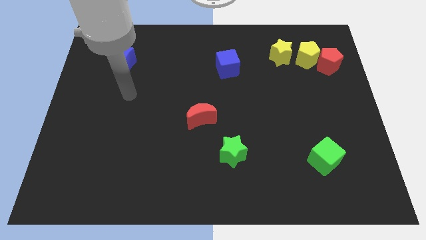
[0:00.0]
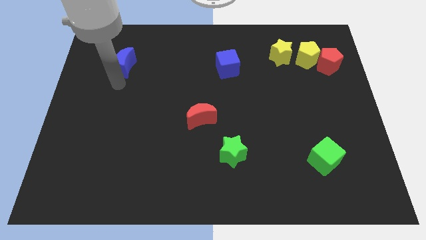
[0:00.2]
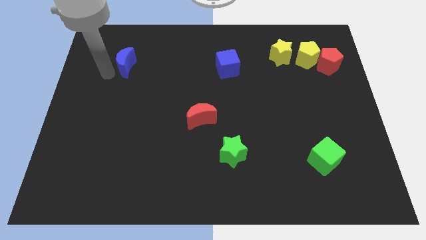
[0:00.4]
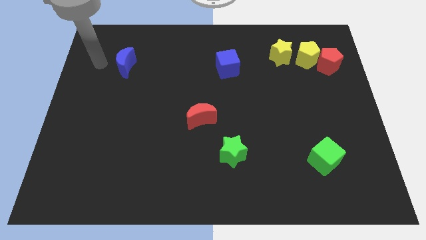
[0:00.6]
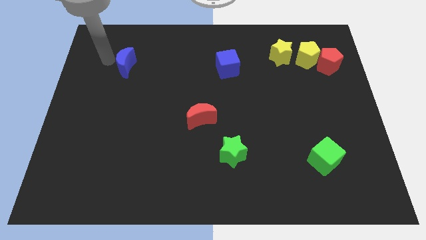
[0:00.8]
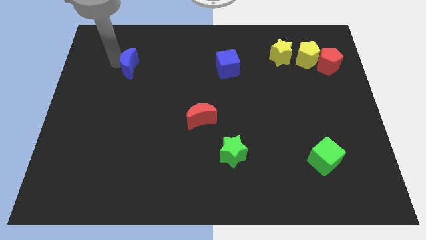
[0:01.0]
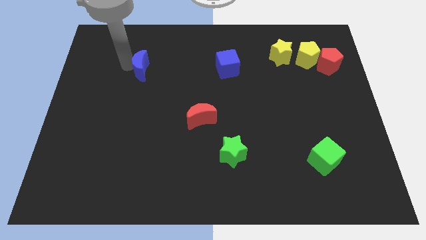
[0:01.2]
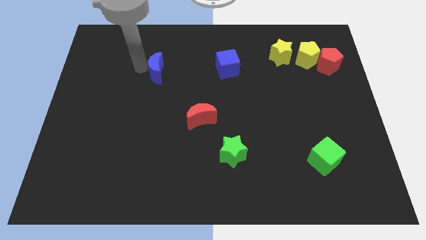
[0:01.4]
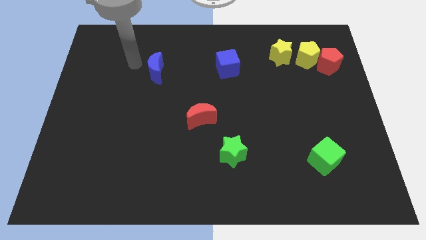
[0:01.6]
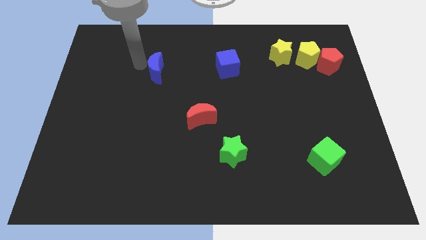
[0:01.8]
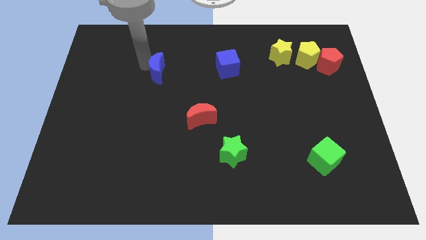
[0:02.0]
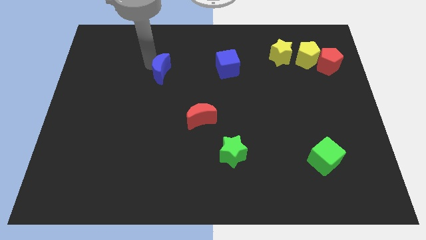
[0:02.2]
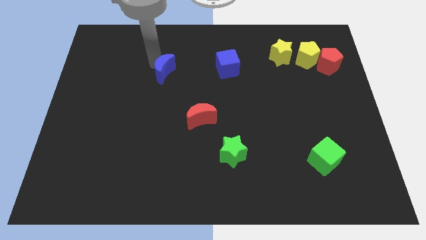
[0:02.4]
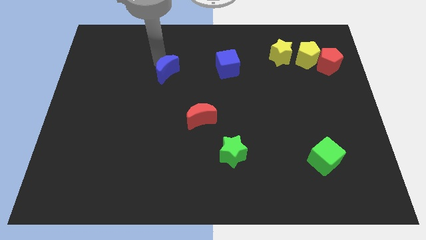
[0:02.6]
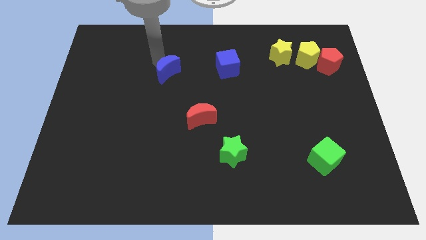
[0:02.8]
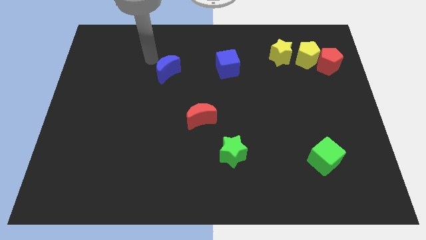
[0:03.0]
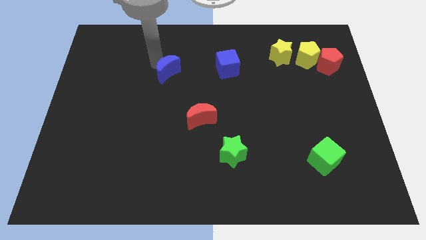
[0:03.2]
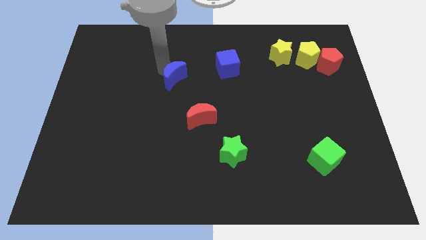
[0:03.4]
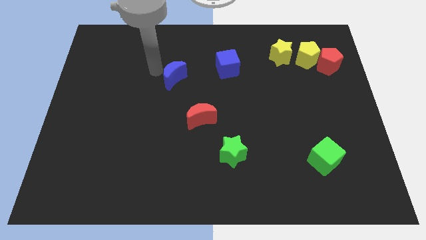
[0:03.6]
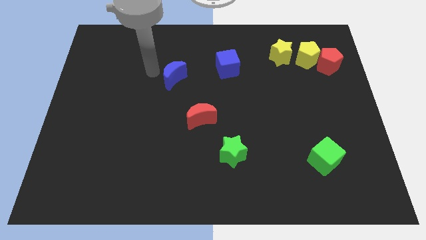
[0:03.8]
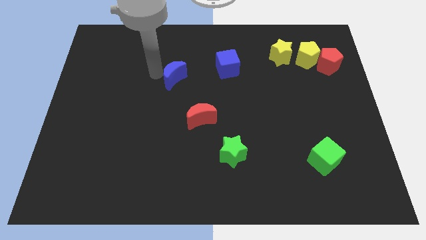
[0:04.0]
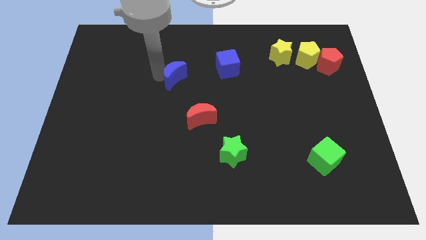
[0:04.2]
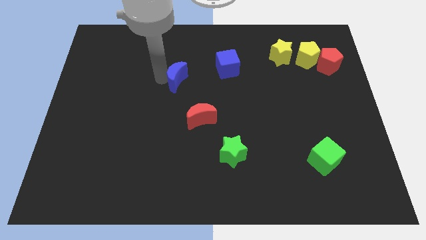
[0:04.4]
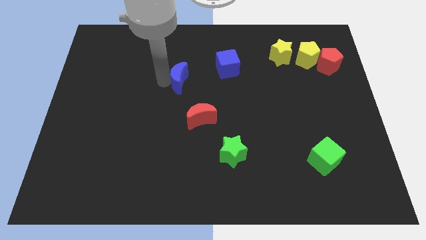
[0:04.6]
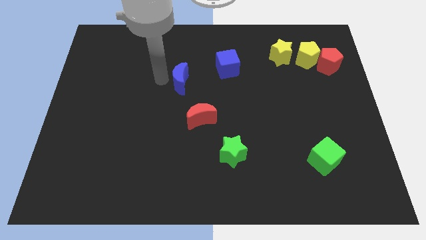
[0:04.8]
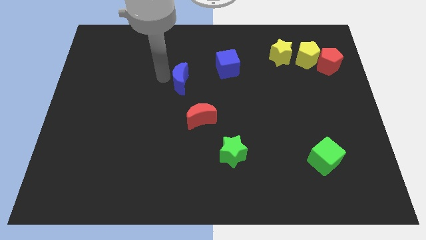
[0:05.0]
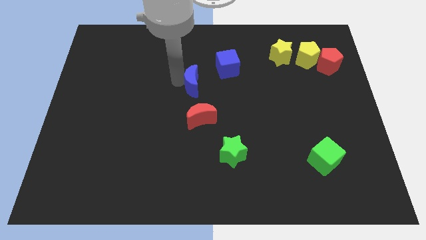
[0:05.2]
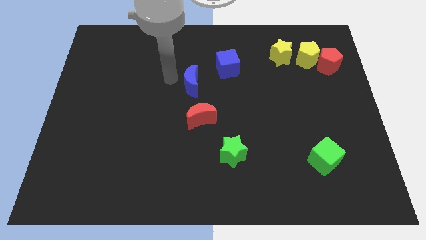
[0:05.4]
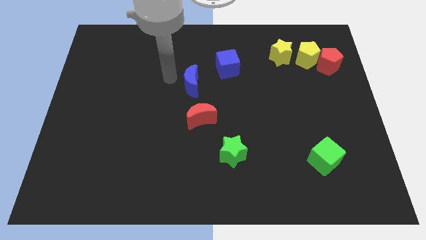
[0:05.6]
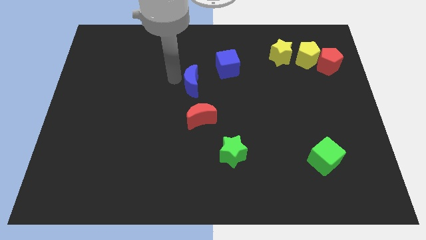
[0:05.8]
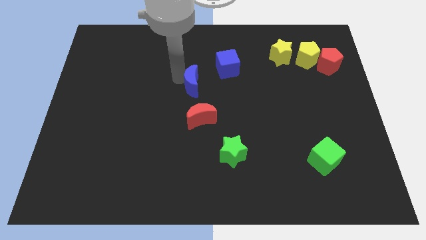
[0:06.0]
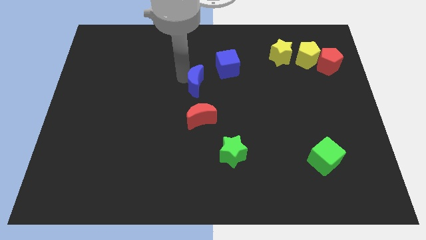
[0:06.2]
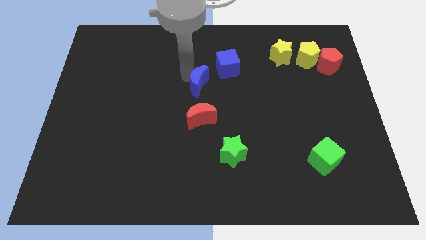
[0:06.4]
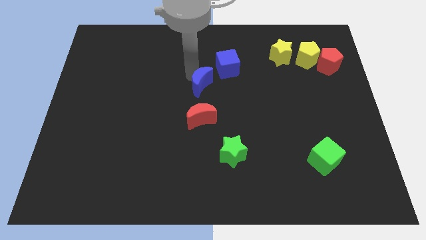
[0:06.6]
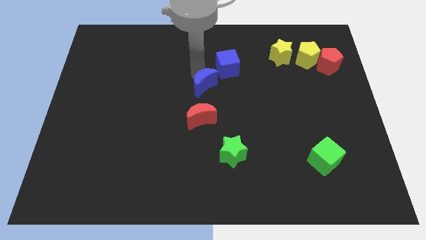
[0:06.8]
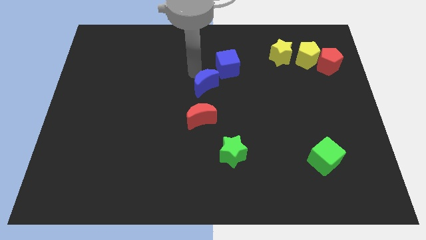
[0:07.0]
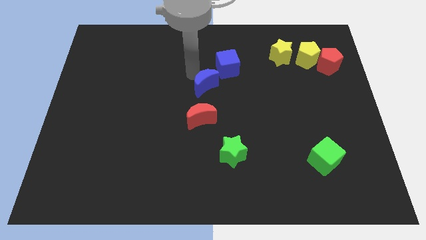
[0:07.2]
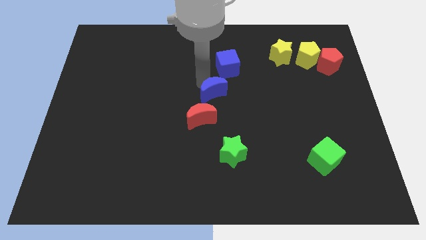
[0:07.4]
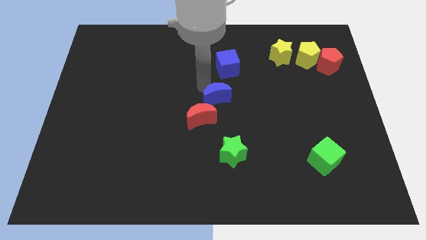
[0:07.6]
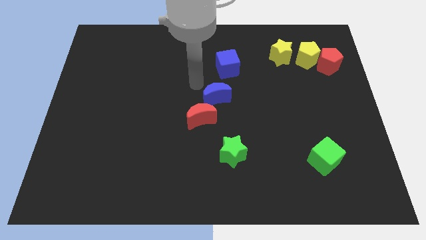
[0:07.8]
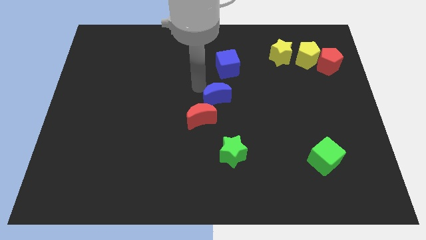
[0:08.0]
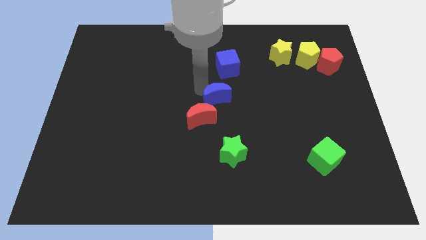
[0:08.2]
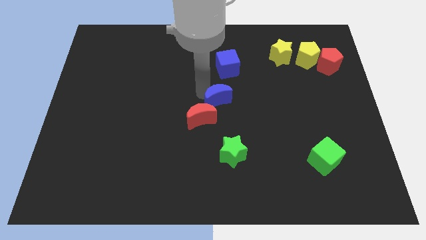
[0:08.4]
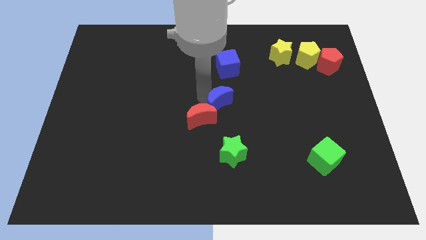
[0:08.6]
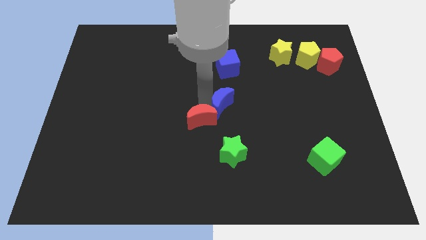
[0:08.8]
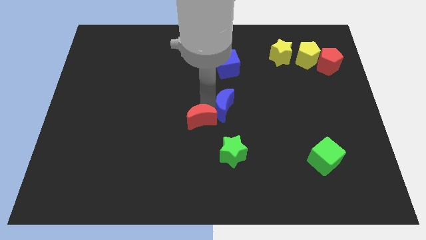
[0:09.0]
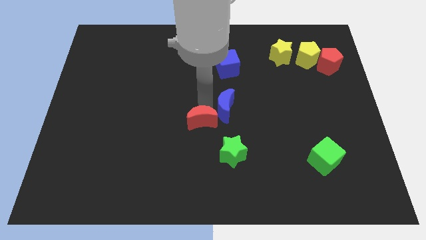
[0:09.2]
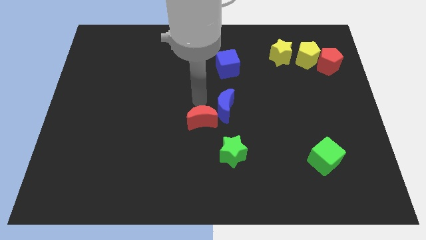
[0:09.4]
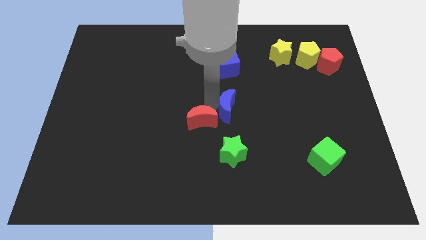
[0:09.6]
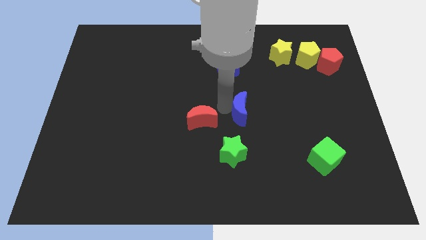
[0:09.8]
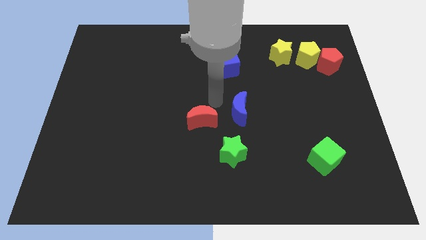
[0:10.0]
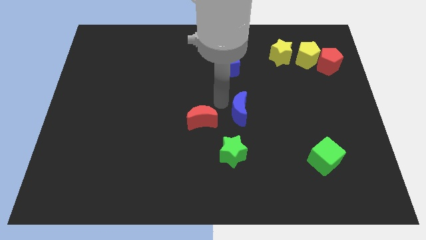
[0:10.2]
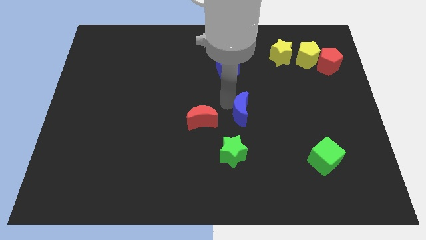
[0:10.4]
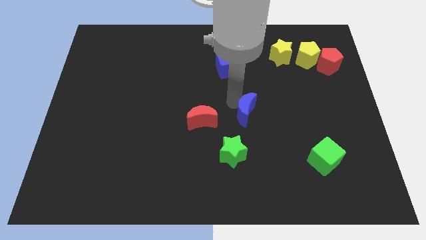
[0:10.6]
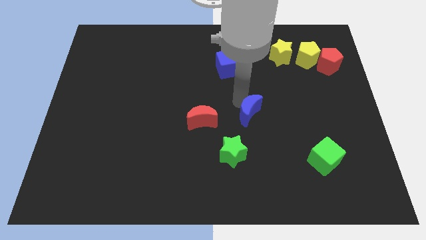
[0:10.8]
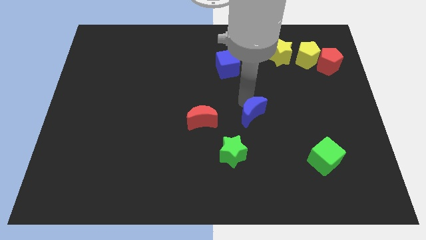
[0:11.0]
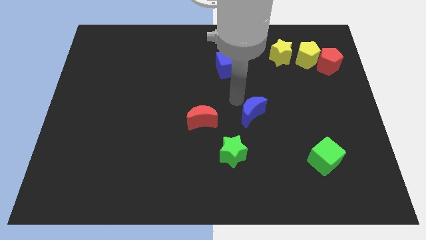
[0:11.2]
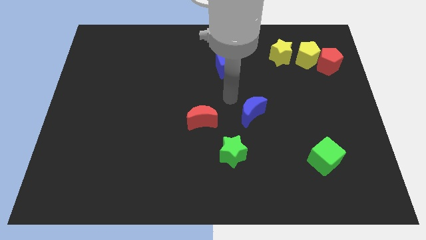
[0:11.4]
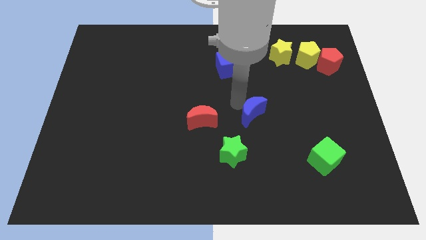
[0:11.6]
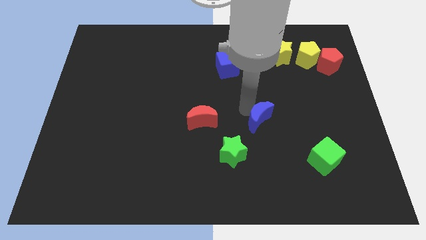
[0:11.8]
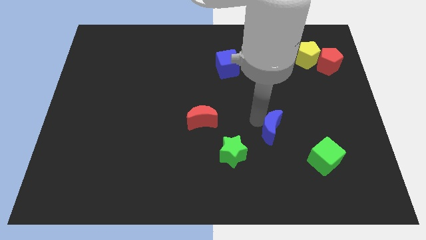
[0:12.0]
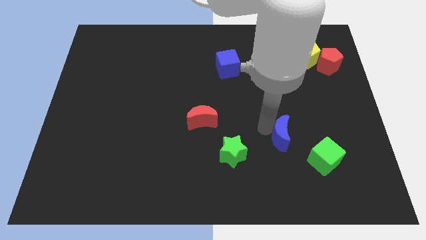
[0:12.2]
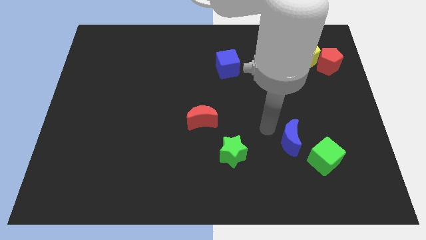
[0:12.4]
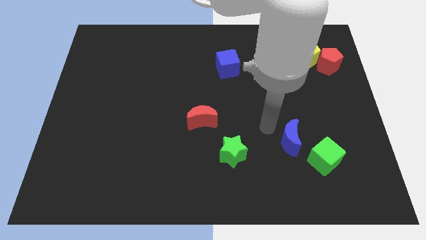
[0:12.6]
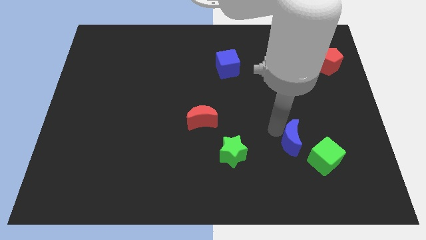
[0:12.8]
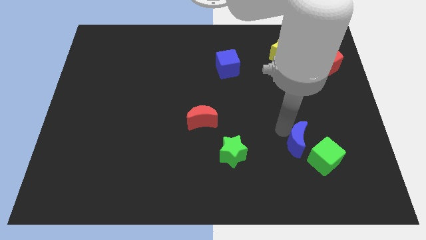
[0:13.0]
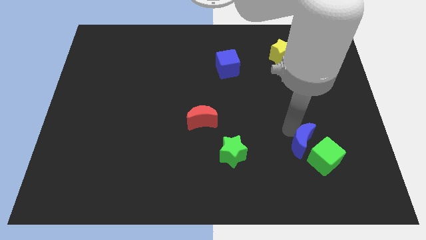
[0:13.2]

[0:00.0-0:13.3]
slide the blue moon towards the green cube

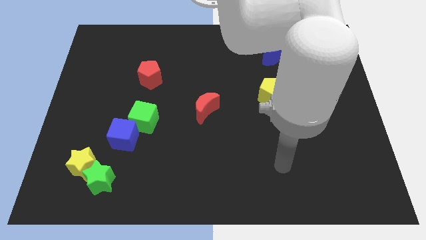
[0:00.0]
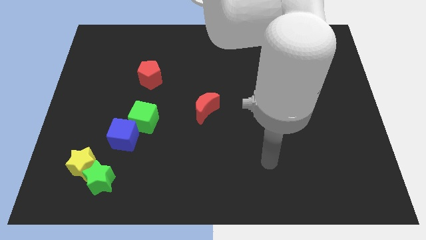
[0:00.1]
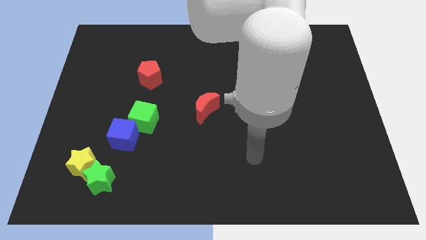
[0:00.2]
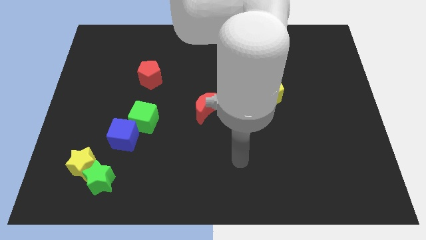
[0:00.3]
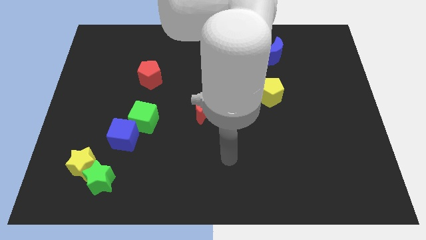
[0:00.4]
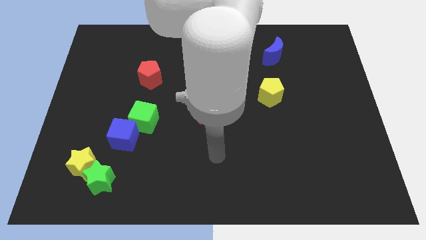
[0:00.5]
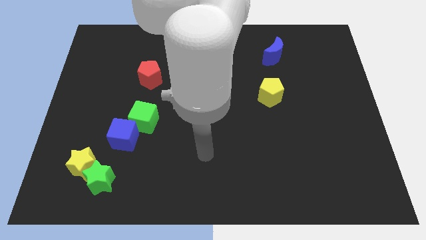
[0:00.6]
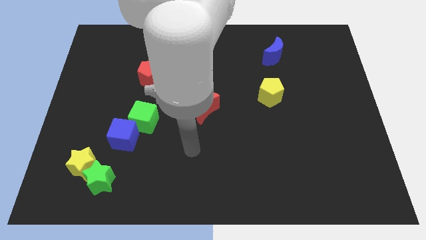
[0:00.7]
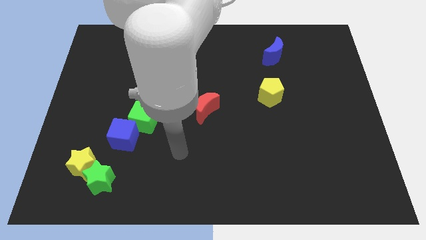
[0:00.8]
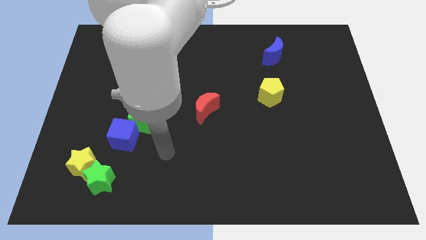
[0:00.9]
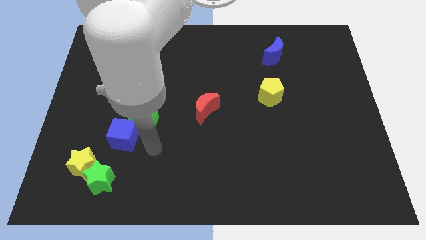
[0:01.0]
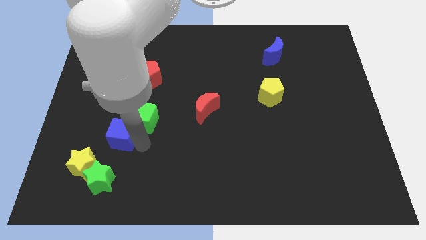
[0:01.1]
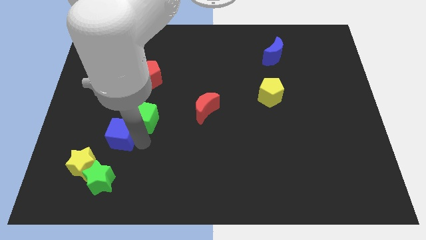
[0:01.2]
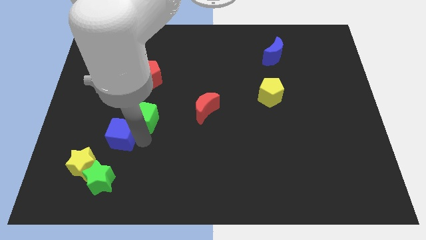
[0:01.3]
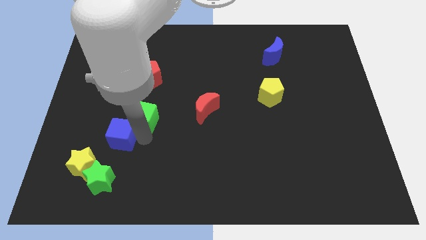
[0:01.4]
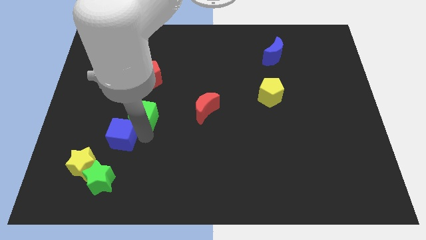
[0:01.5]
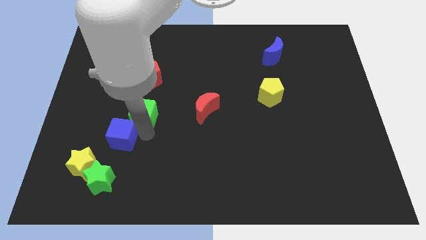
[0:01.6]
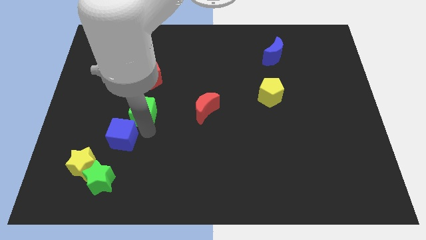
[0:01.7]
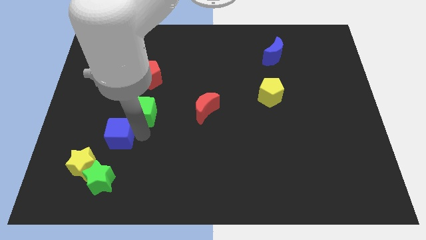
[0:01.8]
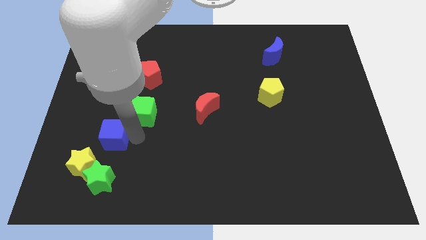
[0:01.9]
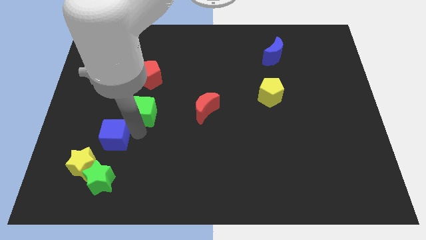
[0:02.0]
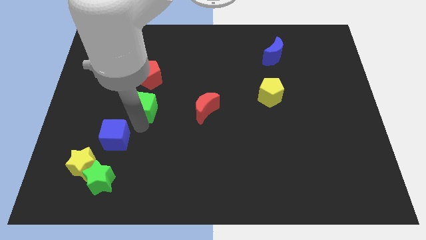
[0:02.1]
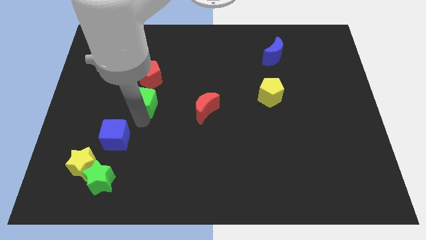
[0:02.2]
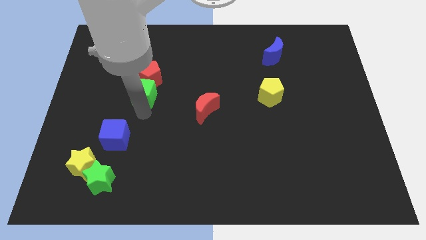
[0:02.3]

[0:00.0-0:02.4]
slide the green cube to the red pentagon
